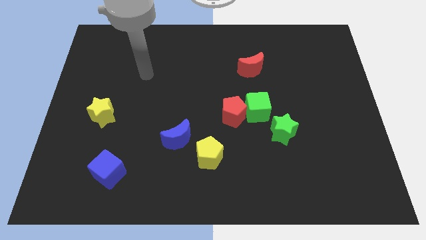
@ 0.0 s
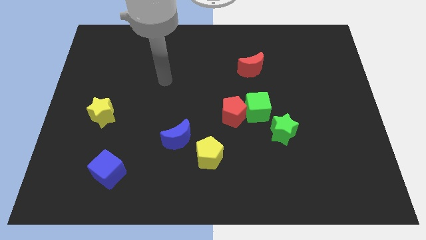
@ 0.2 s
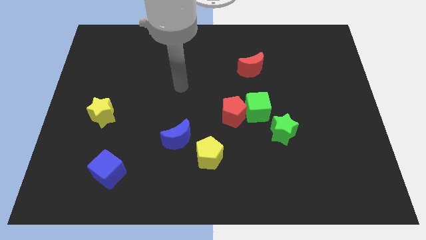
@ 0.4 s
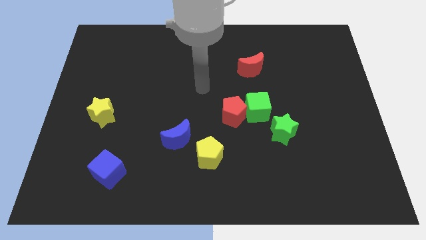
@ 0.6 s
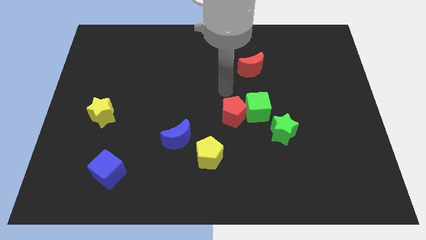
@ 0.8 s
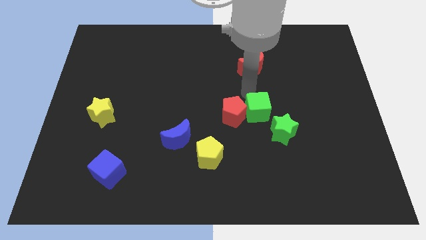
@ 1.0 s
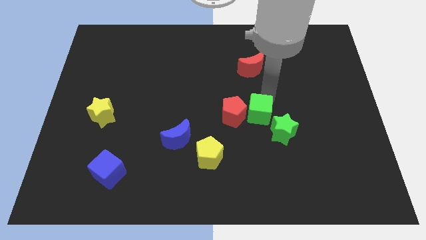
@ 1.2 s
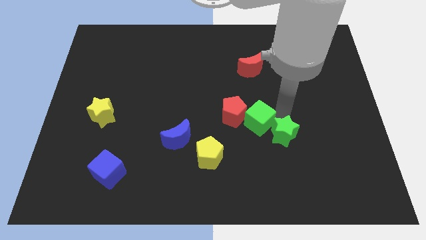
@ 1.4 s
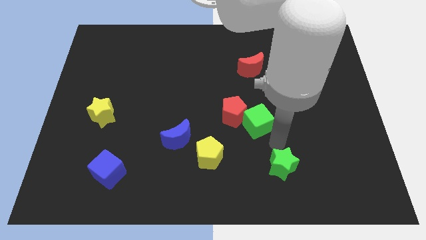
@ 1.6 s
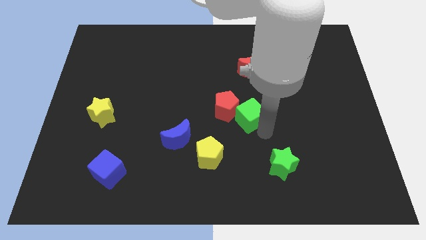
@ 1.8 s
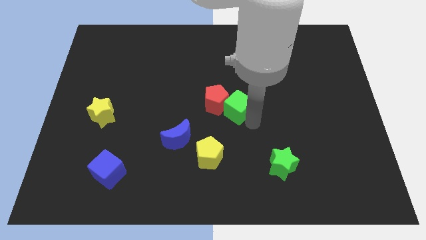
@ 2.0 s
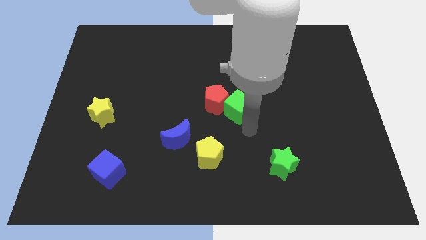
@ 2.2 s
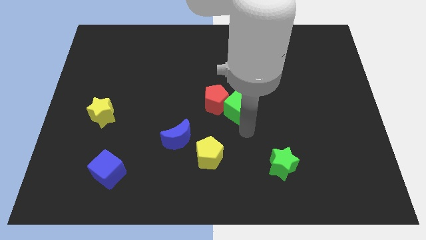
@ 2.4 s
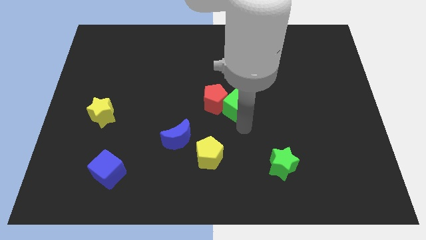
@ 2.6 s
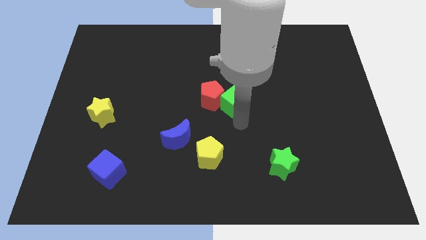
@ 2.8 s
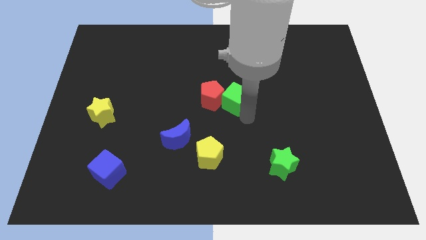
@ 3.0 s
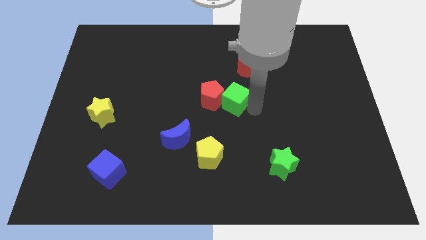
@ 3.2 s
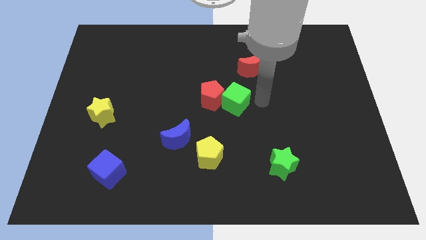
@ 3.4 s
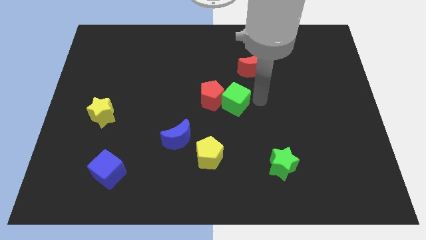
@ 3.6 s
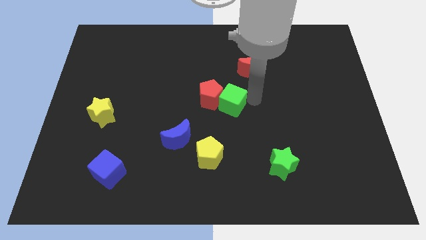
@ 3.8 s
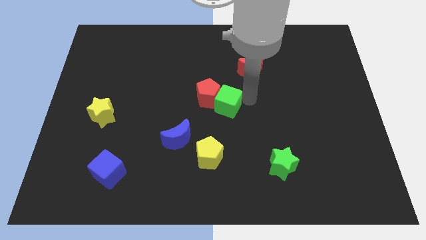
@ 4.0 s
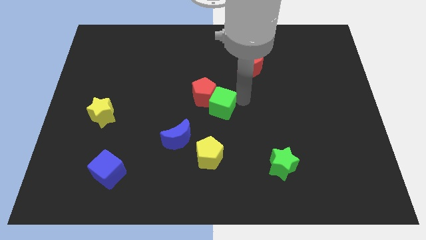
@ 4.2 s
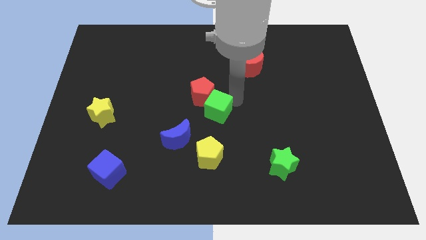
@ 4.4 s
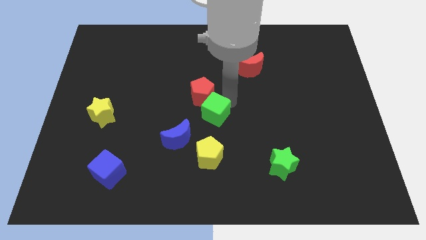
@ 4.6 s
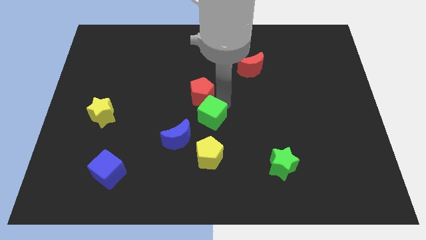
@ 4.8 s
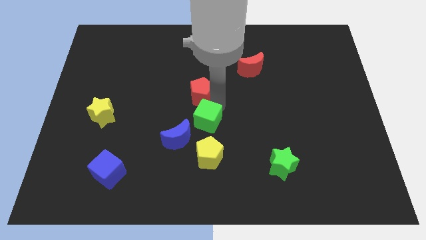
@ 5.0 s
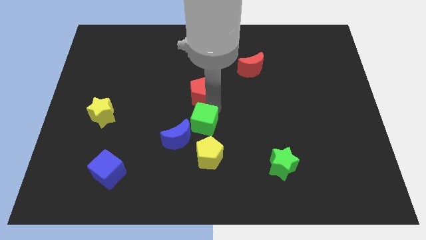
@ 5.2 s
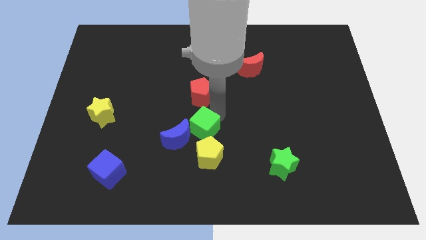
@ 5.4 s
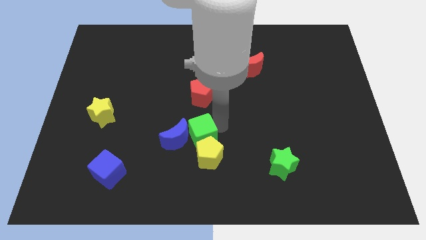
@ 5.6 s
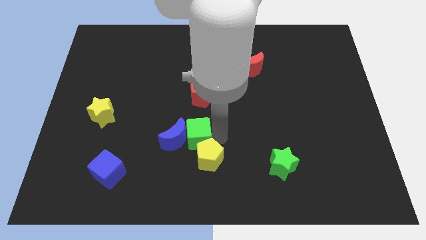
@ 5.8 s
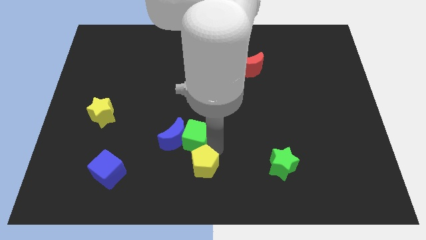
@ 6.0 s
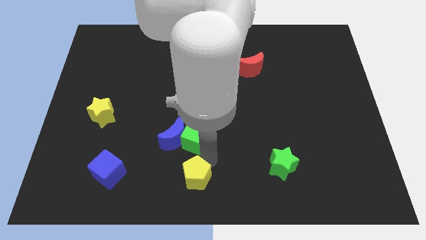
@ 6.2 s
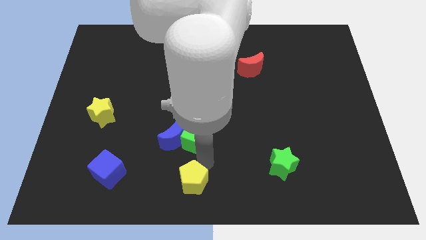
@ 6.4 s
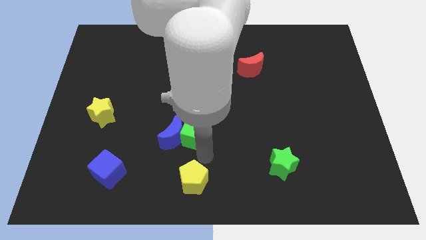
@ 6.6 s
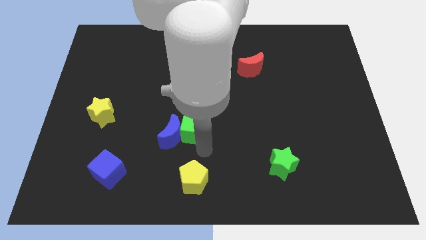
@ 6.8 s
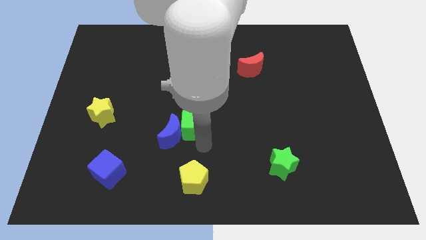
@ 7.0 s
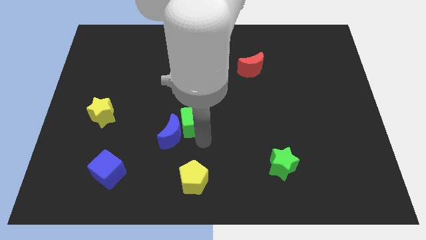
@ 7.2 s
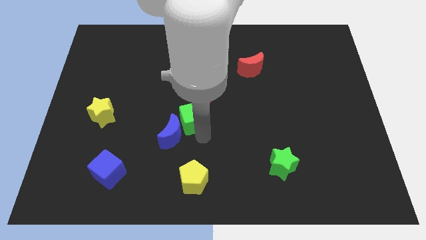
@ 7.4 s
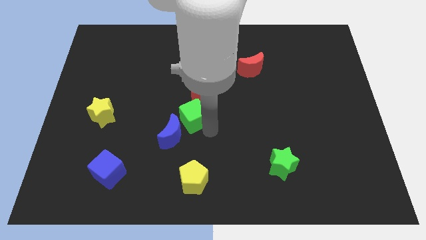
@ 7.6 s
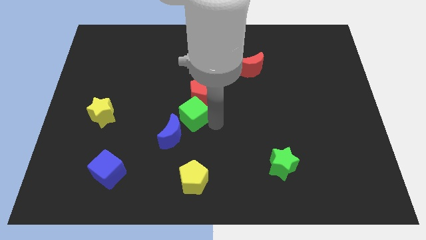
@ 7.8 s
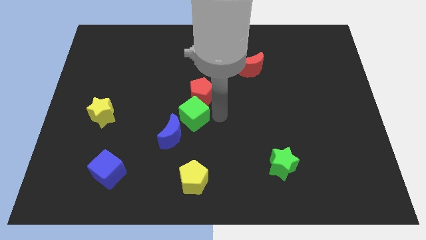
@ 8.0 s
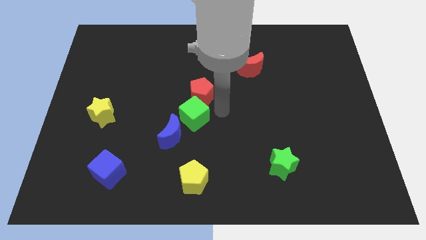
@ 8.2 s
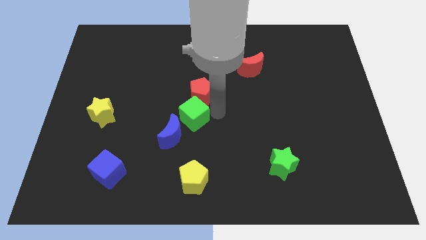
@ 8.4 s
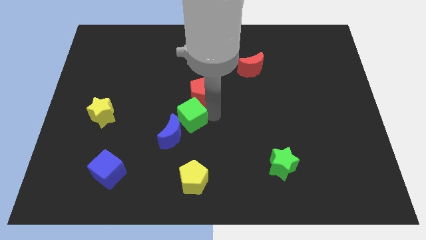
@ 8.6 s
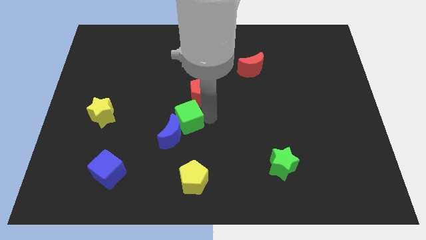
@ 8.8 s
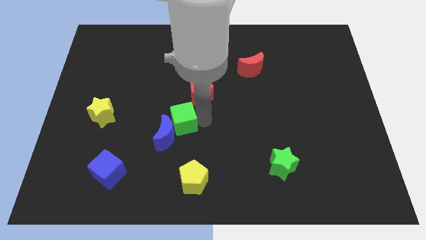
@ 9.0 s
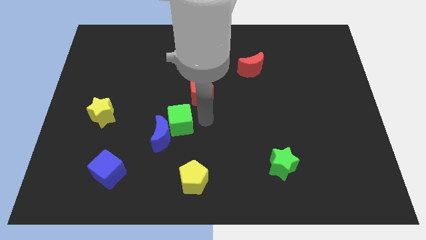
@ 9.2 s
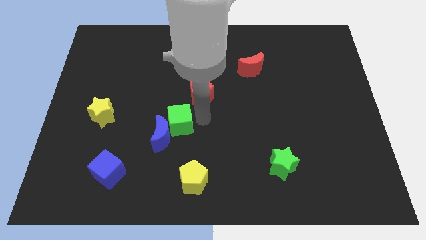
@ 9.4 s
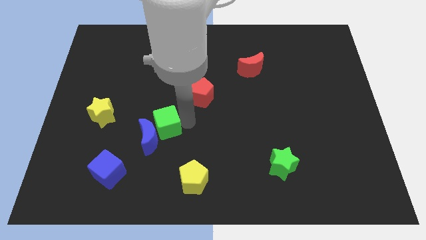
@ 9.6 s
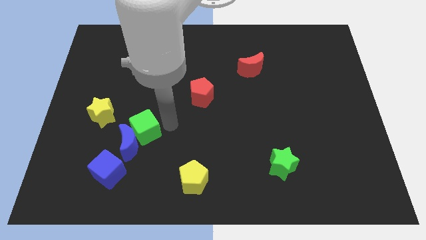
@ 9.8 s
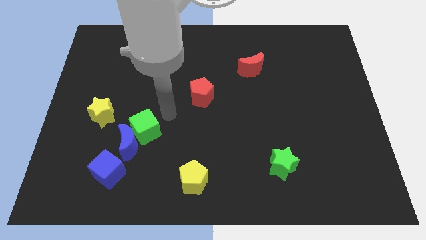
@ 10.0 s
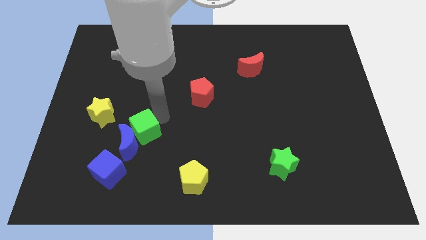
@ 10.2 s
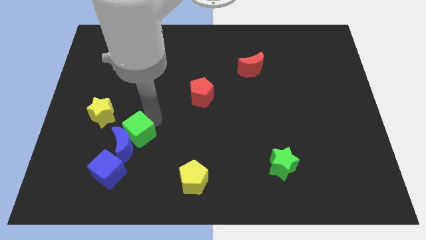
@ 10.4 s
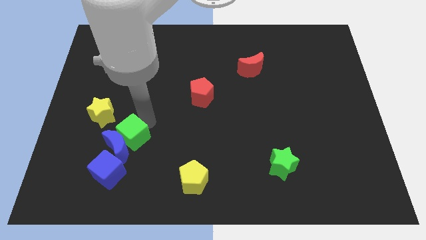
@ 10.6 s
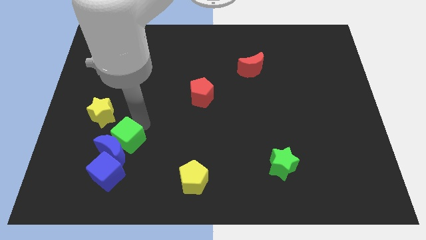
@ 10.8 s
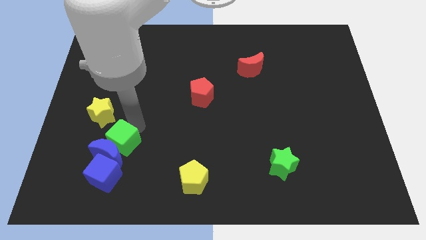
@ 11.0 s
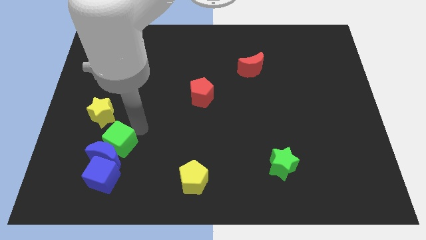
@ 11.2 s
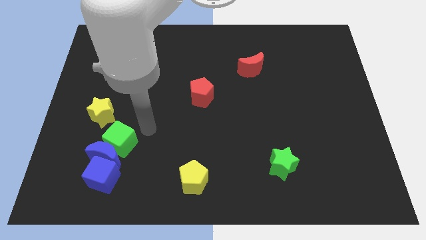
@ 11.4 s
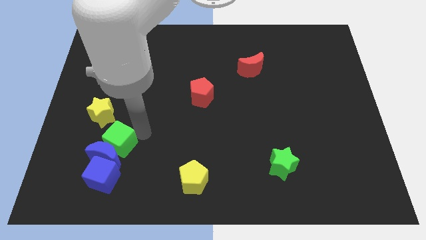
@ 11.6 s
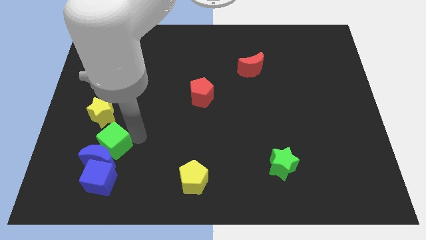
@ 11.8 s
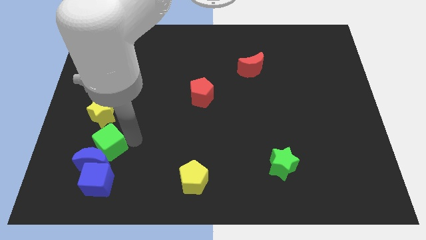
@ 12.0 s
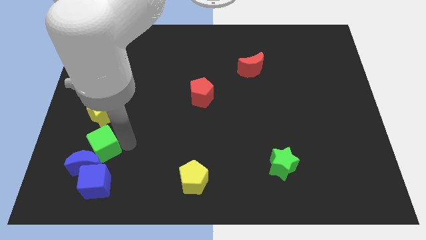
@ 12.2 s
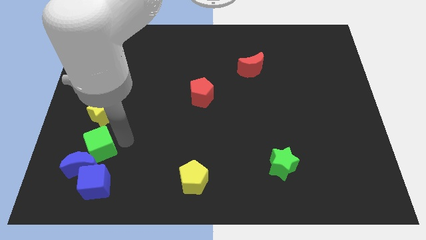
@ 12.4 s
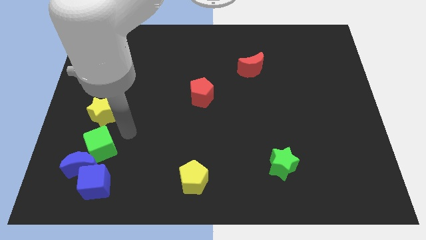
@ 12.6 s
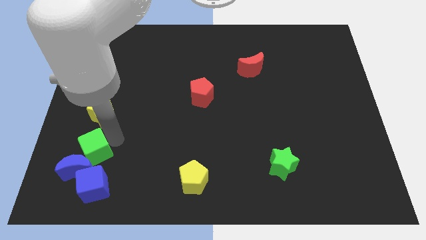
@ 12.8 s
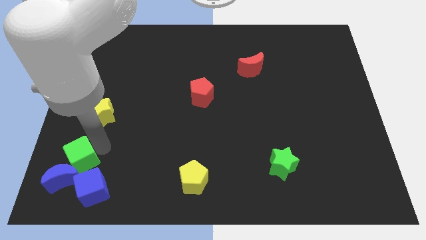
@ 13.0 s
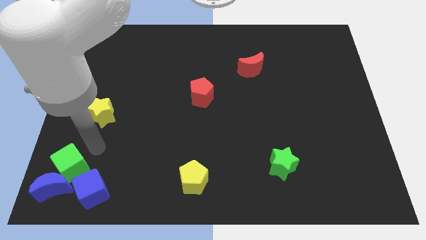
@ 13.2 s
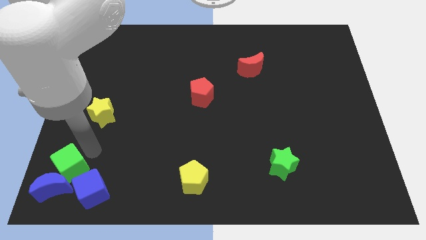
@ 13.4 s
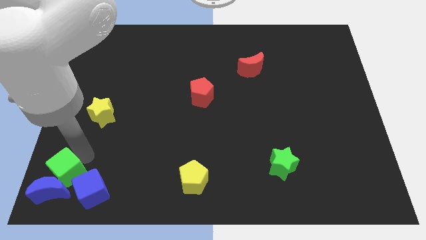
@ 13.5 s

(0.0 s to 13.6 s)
slide the green cube to the bottom left of the board
